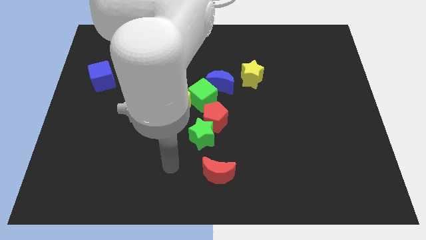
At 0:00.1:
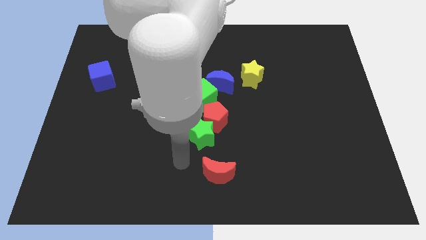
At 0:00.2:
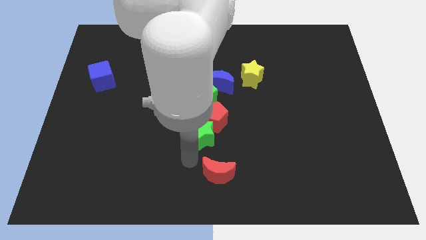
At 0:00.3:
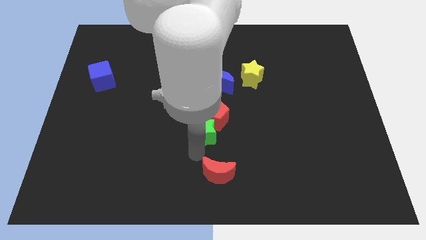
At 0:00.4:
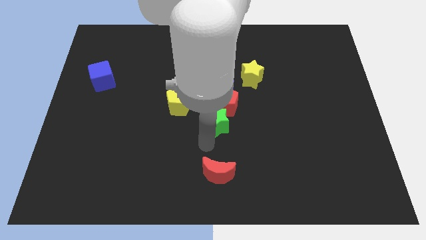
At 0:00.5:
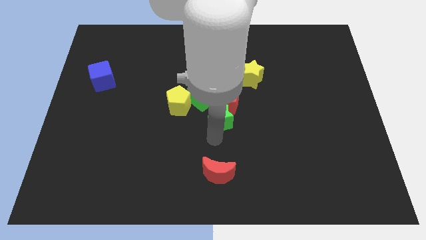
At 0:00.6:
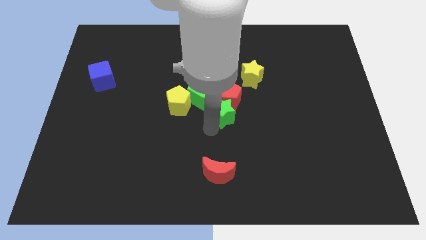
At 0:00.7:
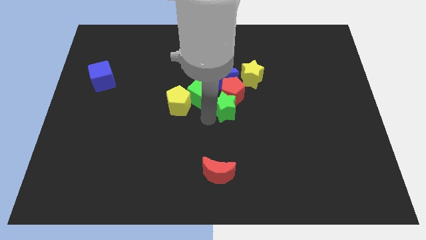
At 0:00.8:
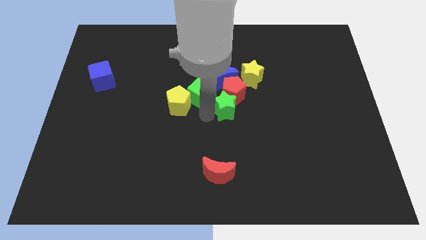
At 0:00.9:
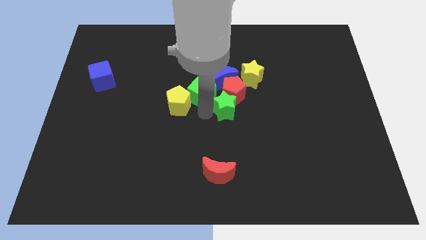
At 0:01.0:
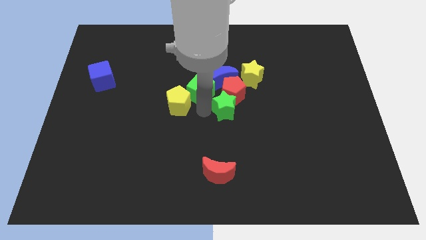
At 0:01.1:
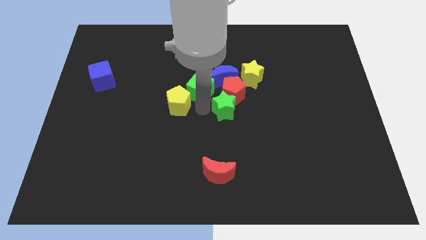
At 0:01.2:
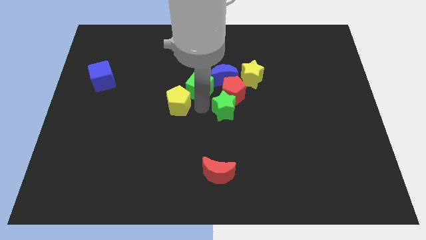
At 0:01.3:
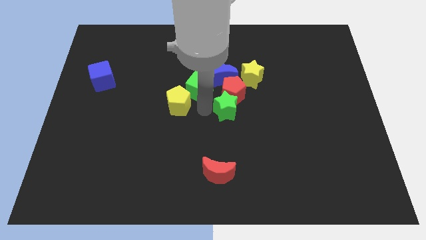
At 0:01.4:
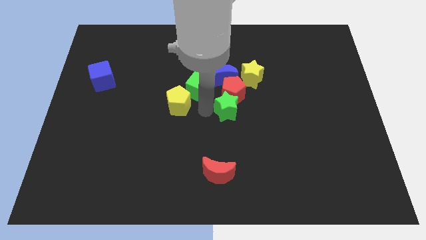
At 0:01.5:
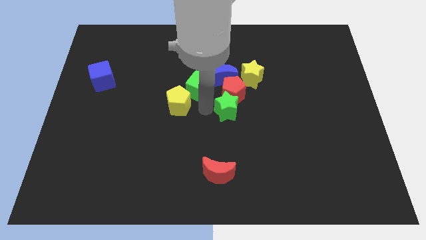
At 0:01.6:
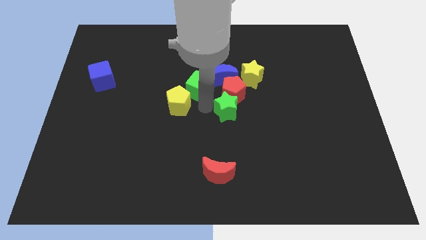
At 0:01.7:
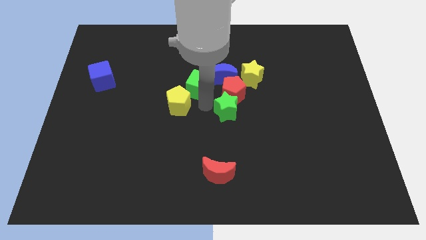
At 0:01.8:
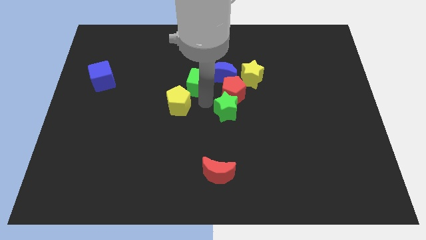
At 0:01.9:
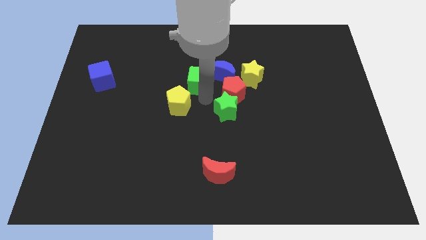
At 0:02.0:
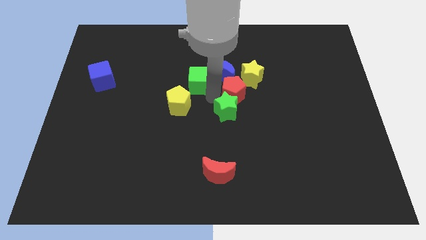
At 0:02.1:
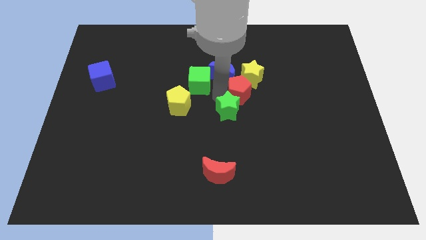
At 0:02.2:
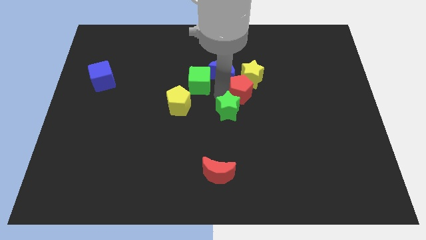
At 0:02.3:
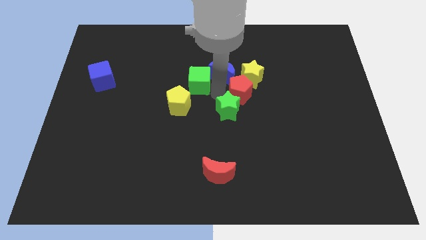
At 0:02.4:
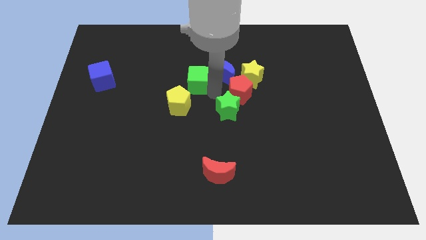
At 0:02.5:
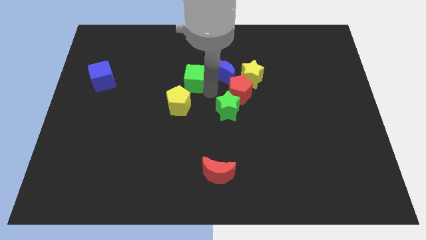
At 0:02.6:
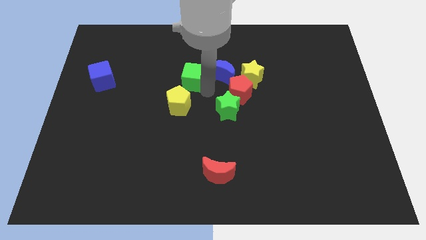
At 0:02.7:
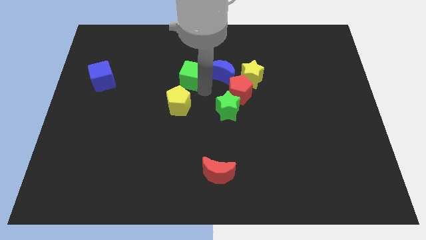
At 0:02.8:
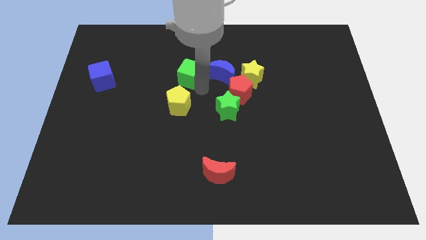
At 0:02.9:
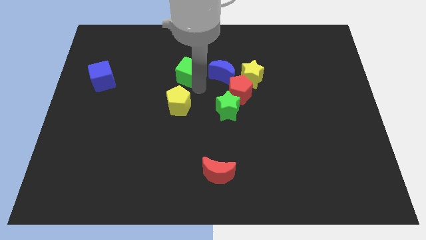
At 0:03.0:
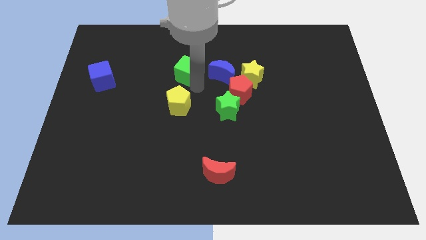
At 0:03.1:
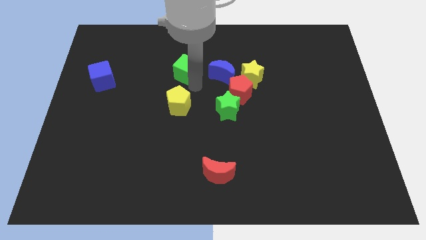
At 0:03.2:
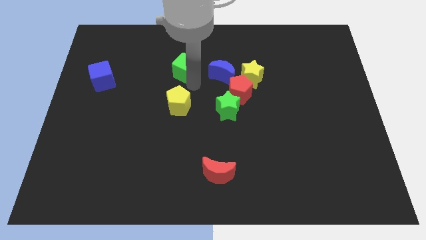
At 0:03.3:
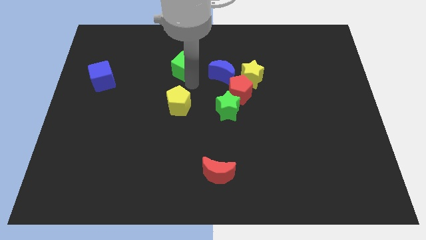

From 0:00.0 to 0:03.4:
separate the green cube from the group

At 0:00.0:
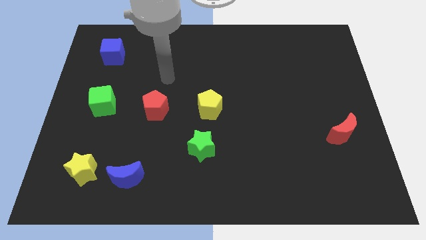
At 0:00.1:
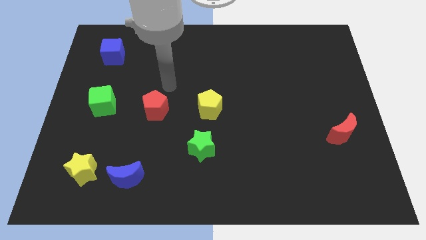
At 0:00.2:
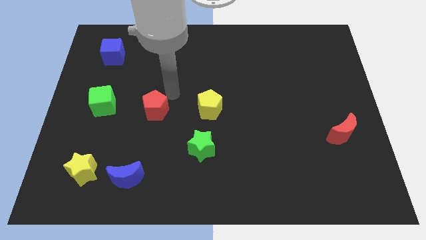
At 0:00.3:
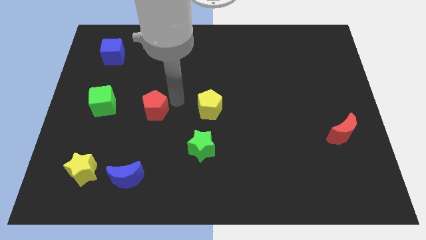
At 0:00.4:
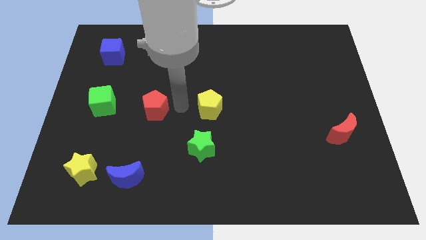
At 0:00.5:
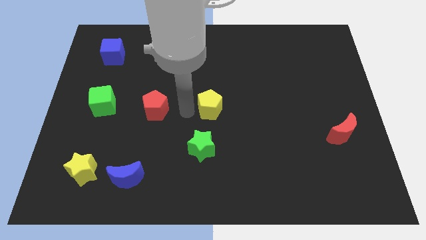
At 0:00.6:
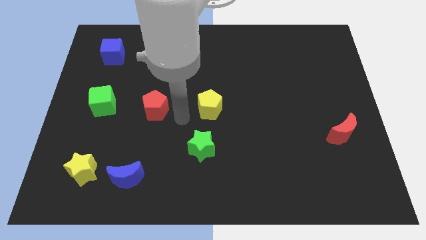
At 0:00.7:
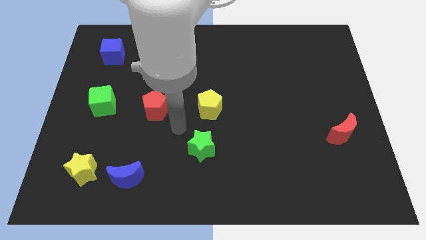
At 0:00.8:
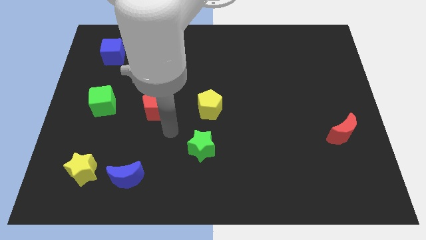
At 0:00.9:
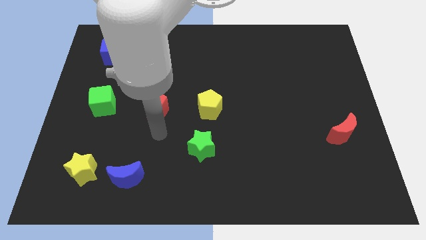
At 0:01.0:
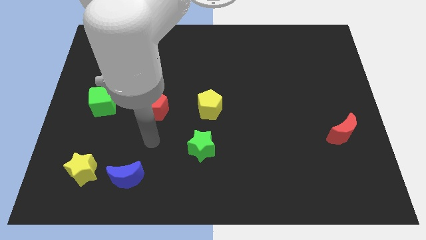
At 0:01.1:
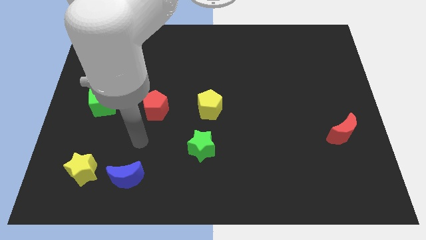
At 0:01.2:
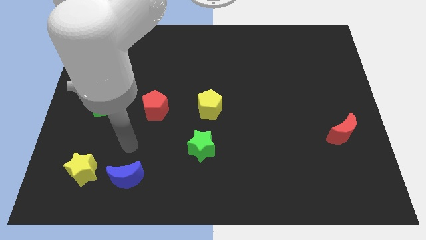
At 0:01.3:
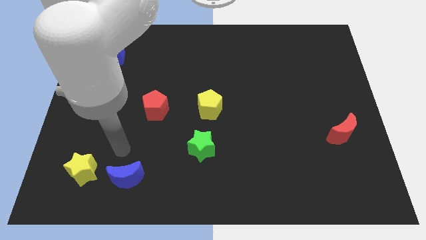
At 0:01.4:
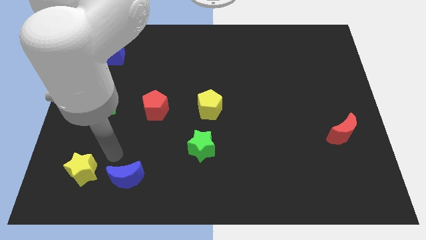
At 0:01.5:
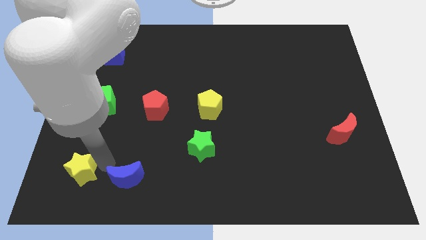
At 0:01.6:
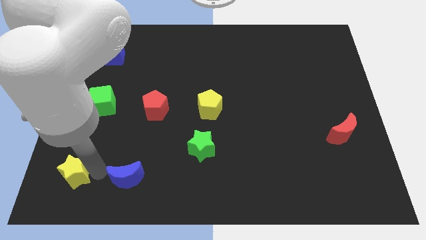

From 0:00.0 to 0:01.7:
pull the blue moon apart from the yellow star

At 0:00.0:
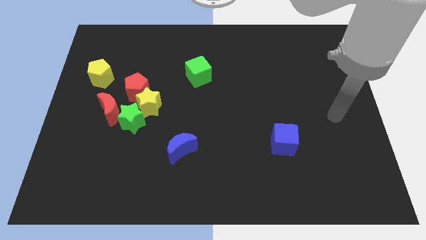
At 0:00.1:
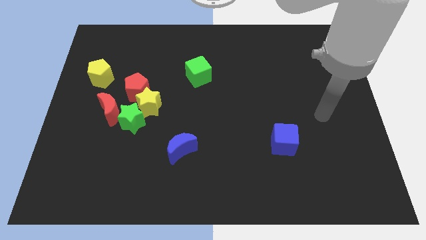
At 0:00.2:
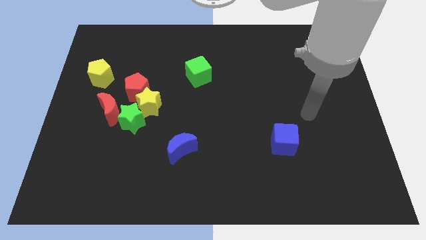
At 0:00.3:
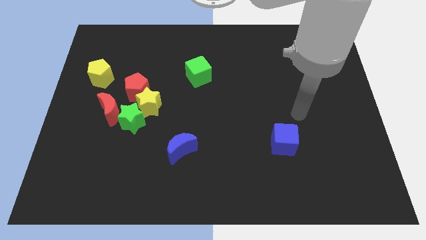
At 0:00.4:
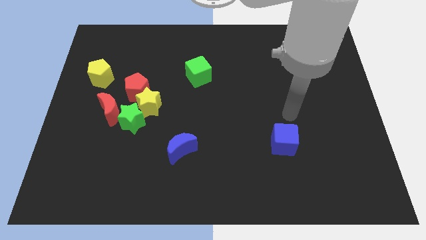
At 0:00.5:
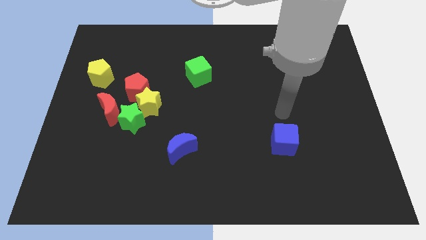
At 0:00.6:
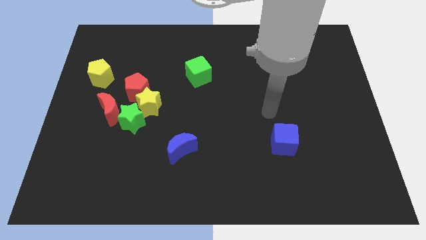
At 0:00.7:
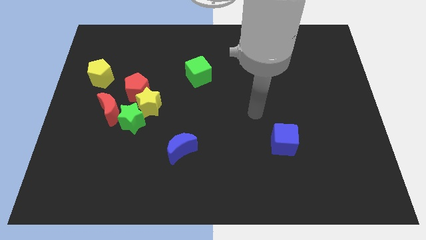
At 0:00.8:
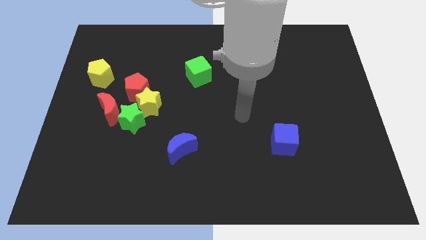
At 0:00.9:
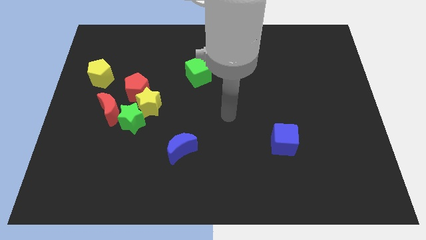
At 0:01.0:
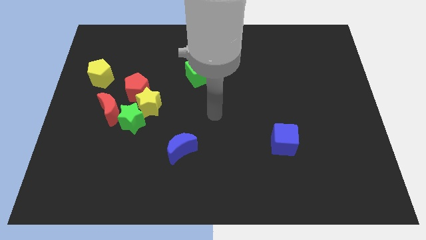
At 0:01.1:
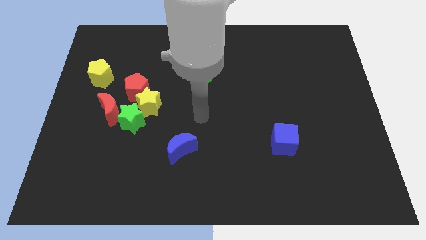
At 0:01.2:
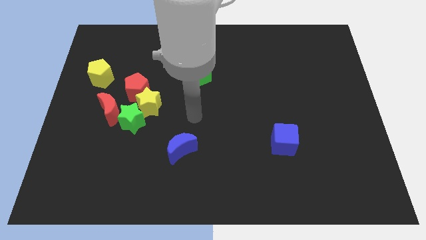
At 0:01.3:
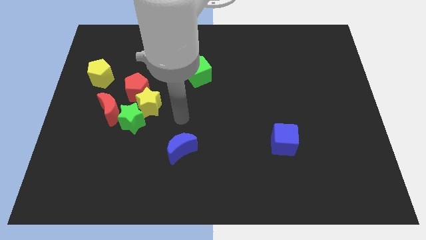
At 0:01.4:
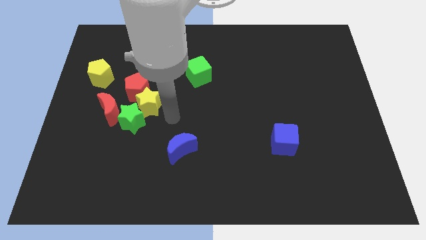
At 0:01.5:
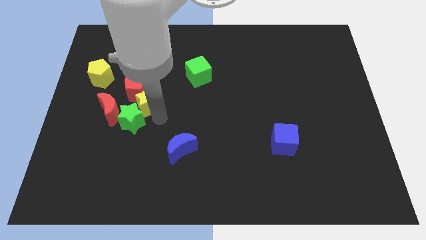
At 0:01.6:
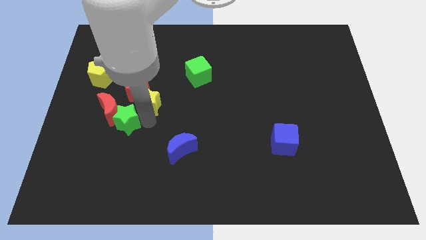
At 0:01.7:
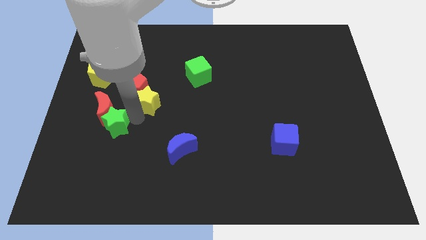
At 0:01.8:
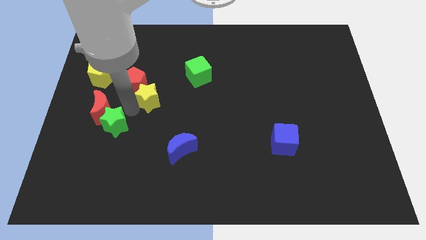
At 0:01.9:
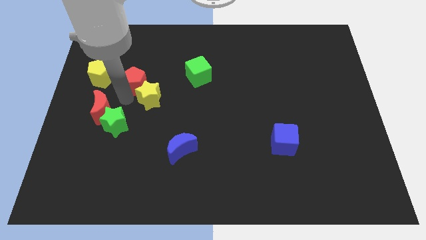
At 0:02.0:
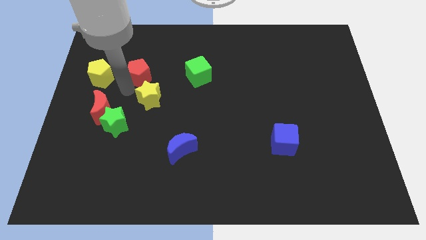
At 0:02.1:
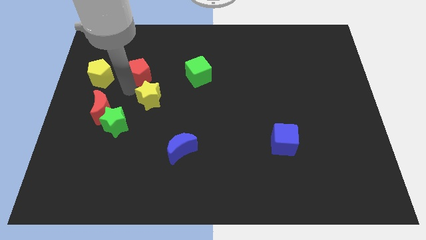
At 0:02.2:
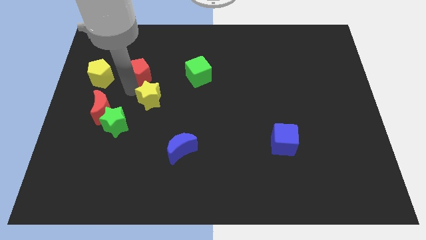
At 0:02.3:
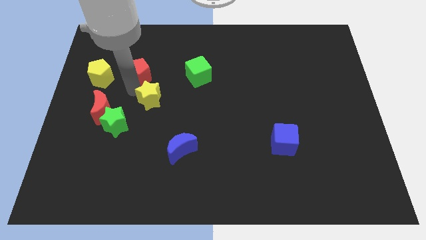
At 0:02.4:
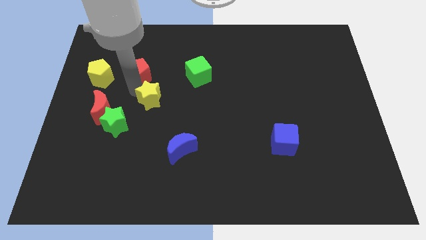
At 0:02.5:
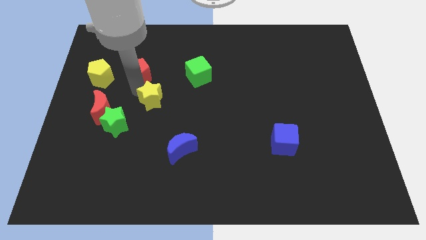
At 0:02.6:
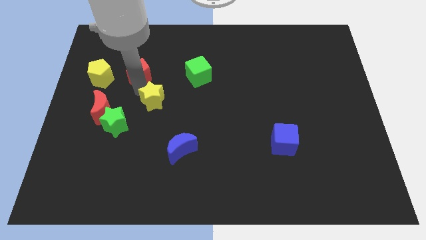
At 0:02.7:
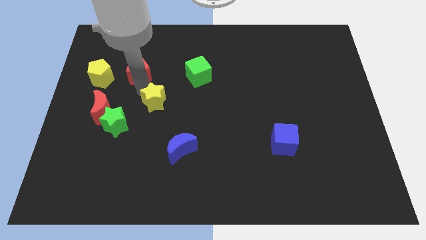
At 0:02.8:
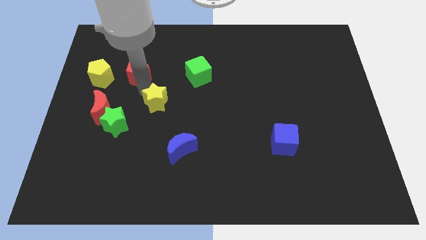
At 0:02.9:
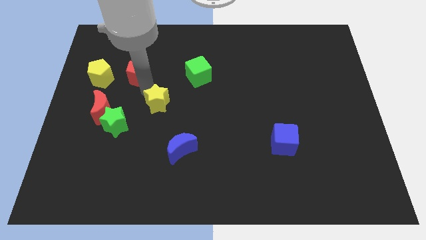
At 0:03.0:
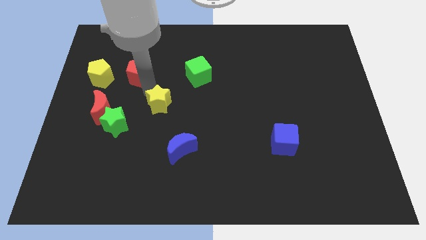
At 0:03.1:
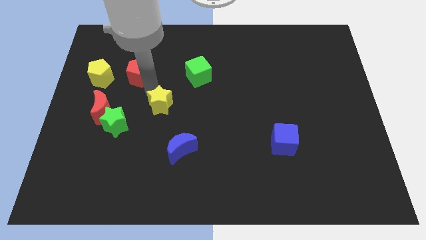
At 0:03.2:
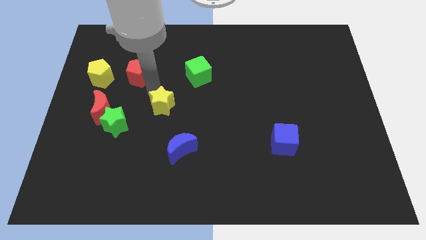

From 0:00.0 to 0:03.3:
move the yellow star away from the red pentagon, green star, and red moon

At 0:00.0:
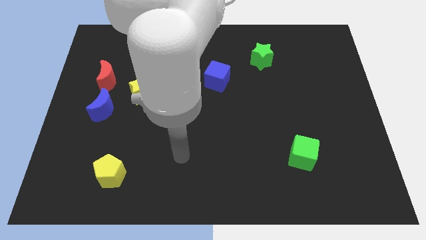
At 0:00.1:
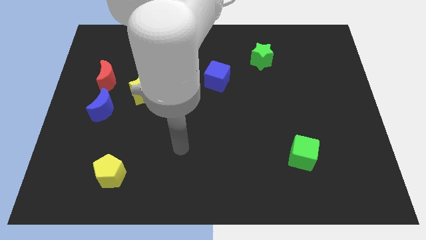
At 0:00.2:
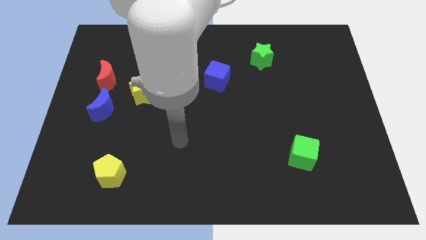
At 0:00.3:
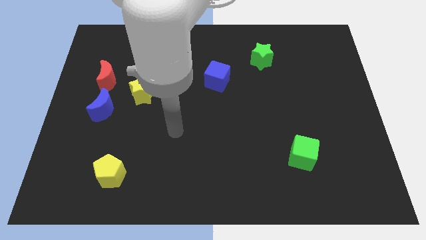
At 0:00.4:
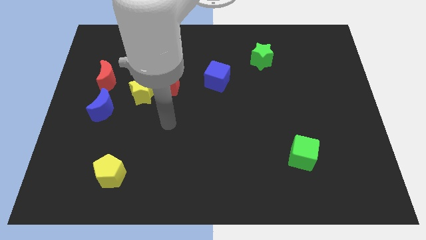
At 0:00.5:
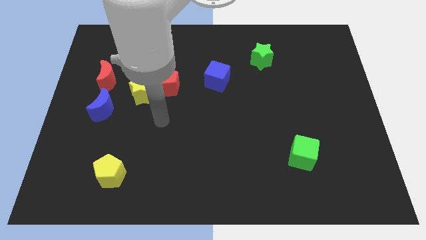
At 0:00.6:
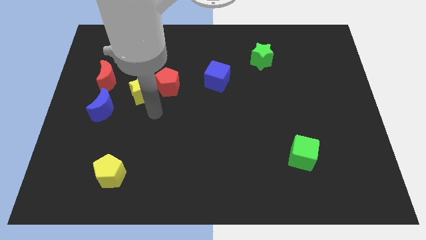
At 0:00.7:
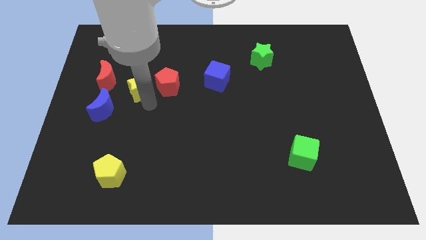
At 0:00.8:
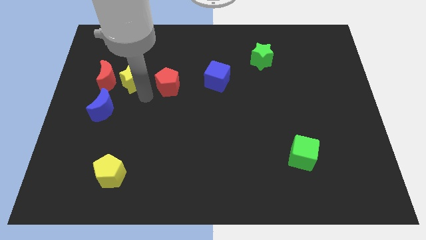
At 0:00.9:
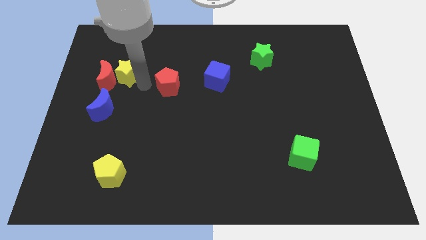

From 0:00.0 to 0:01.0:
pull the red pentagon apart from the yellow star
